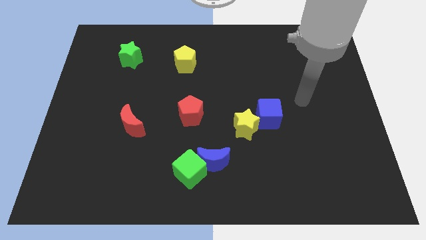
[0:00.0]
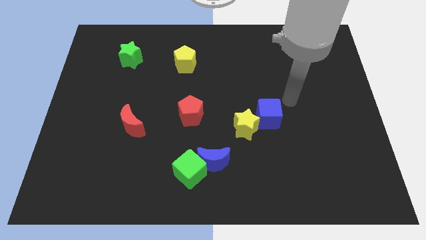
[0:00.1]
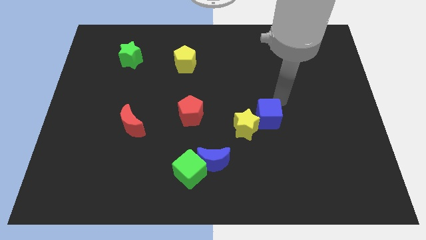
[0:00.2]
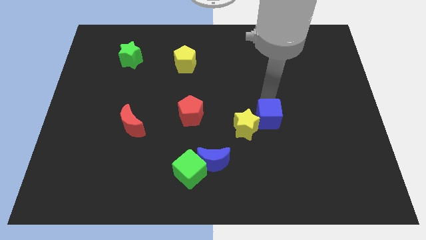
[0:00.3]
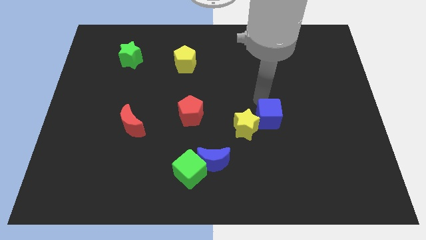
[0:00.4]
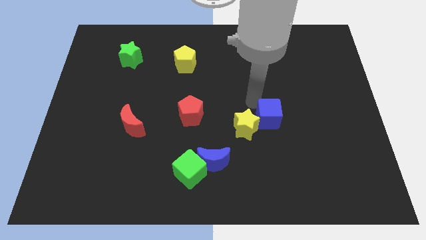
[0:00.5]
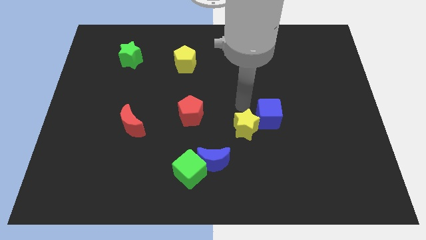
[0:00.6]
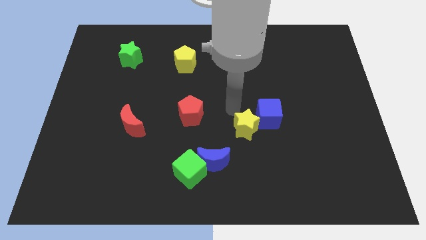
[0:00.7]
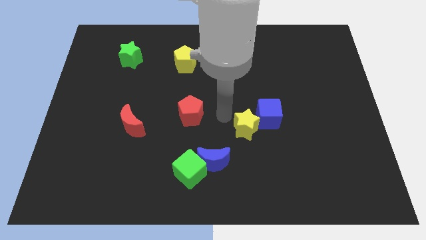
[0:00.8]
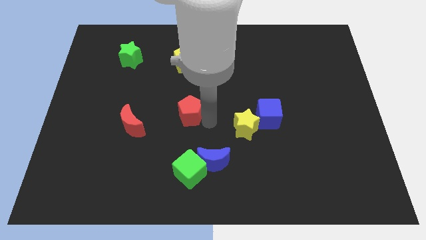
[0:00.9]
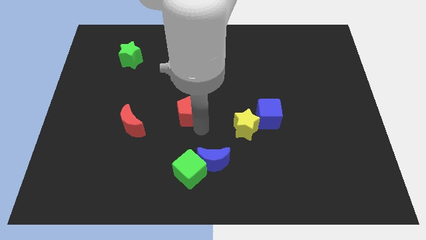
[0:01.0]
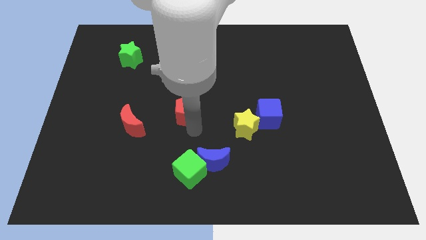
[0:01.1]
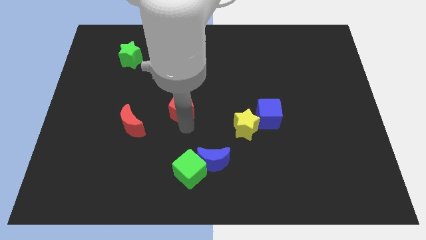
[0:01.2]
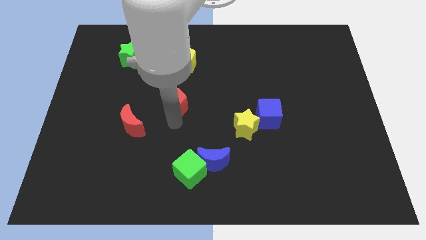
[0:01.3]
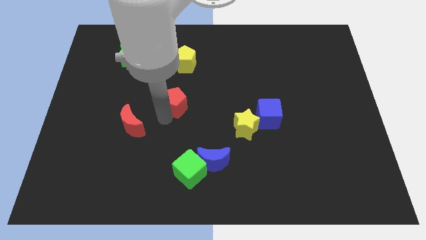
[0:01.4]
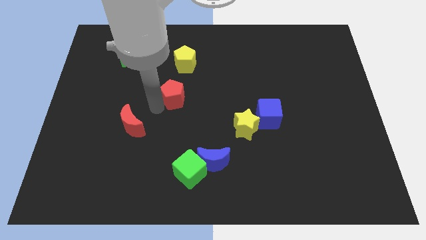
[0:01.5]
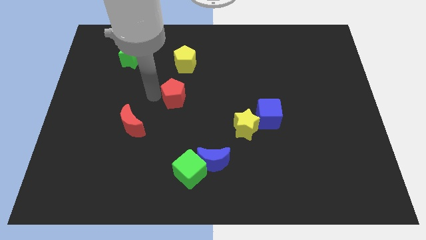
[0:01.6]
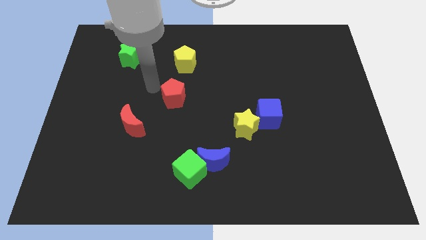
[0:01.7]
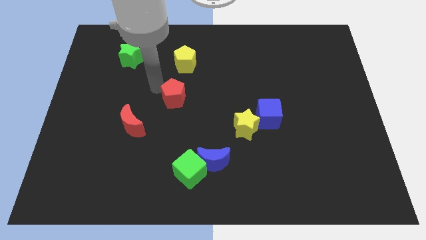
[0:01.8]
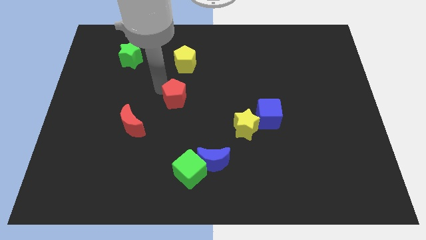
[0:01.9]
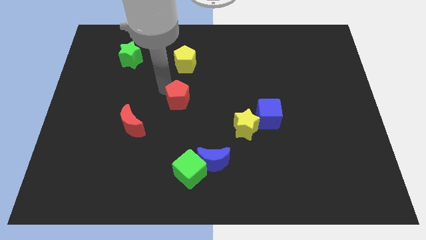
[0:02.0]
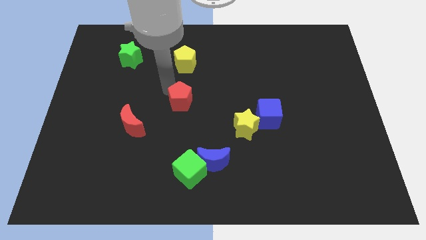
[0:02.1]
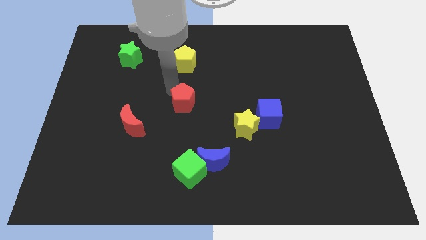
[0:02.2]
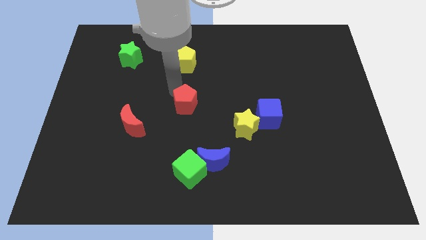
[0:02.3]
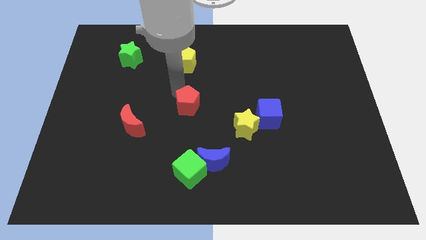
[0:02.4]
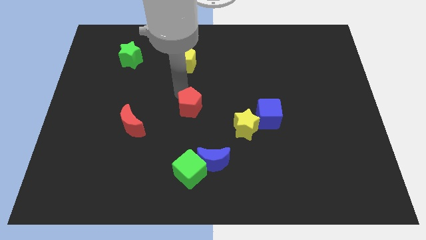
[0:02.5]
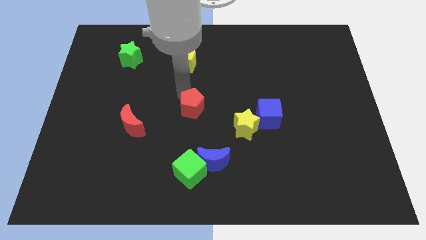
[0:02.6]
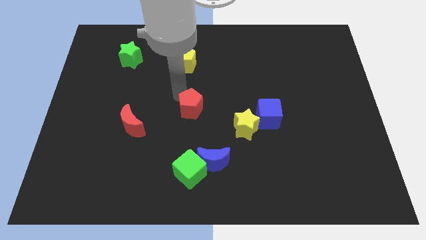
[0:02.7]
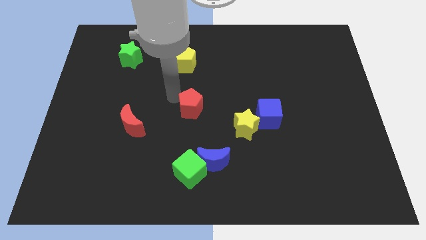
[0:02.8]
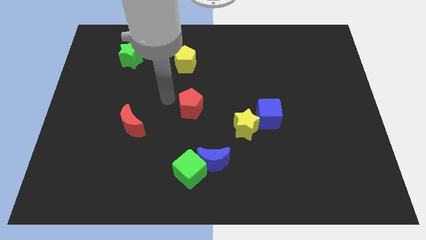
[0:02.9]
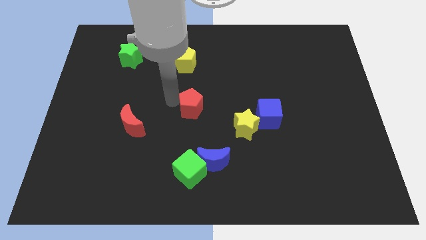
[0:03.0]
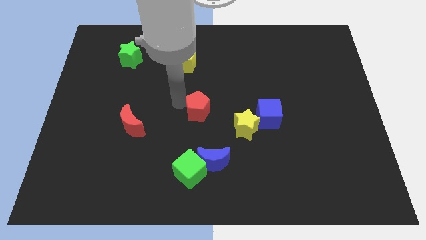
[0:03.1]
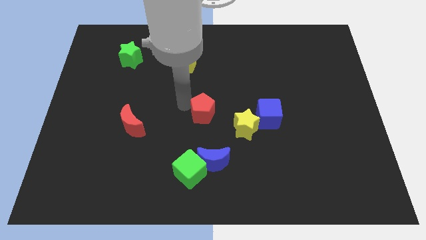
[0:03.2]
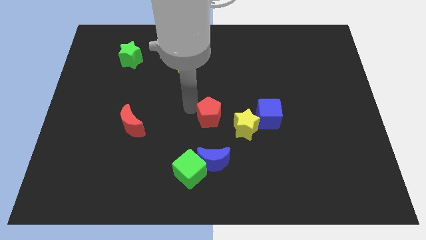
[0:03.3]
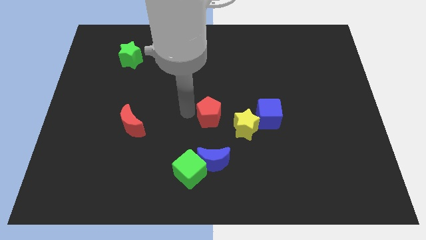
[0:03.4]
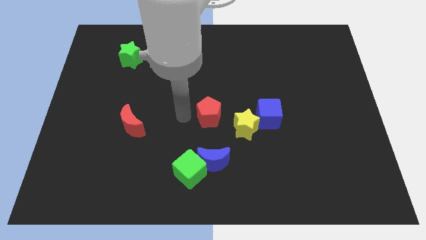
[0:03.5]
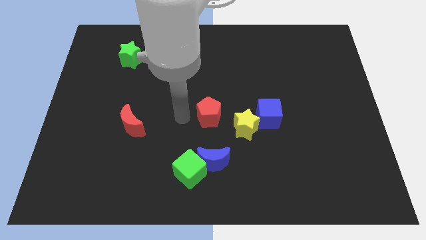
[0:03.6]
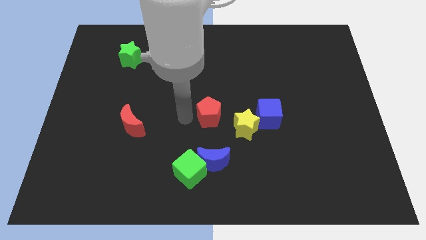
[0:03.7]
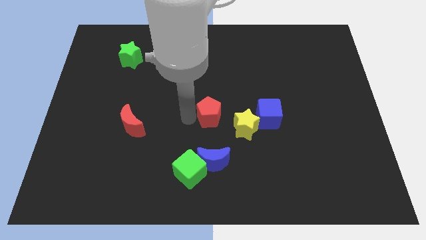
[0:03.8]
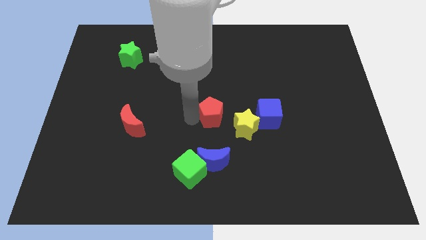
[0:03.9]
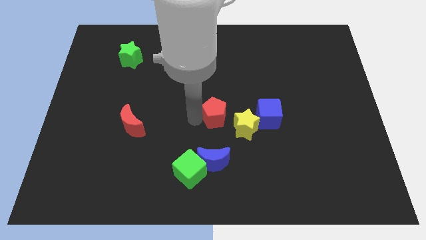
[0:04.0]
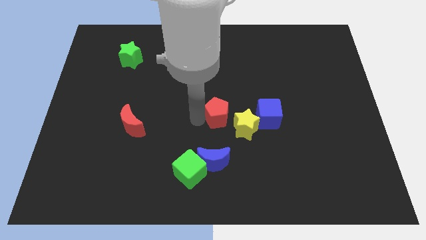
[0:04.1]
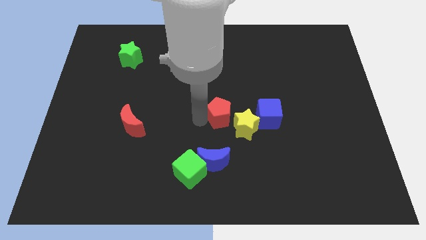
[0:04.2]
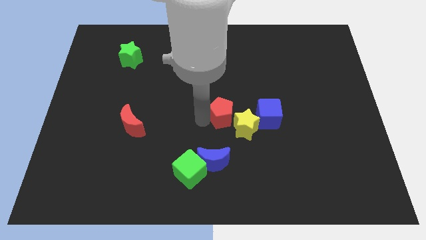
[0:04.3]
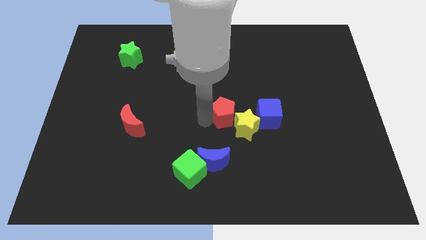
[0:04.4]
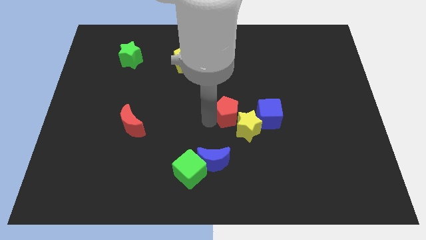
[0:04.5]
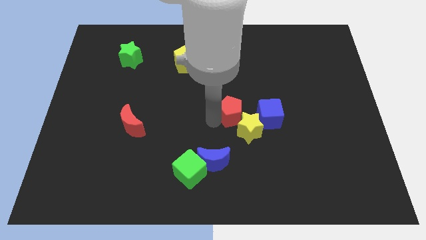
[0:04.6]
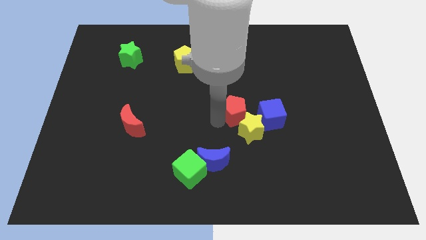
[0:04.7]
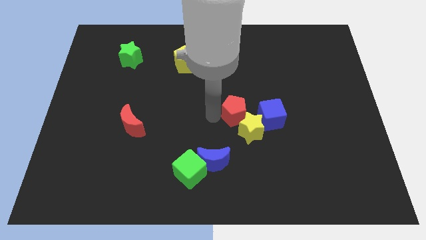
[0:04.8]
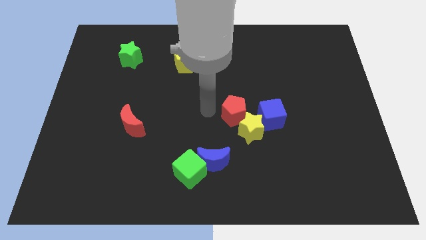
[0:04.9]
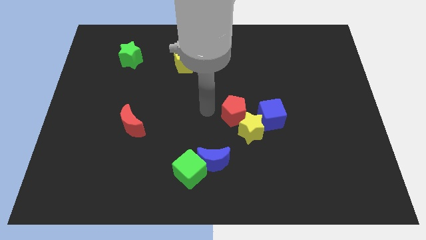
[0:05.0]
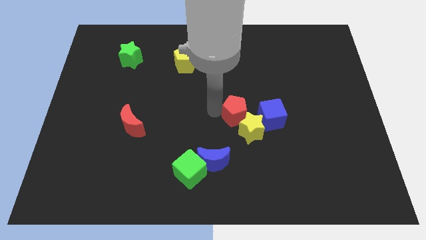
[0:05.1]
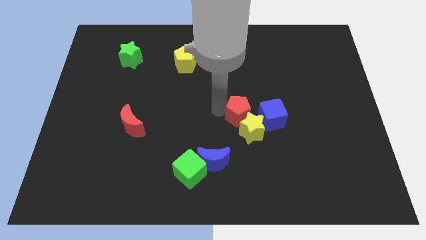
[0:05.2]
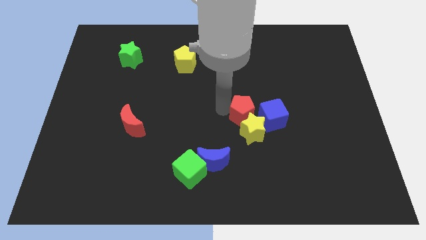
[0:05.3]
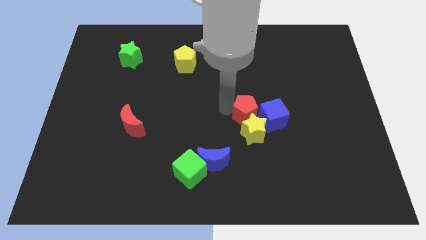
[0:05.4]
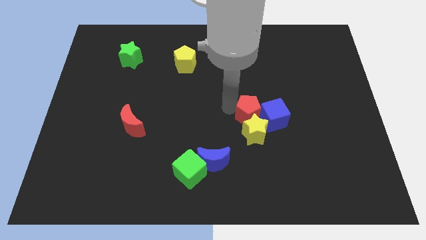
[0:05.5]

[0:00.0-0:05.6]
put the red pentagon next to the blue cube

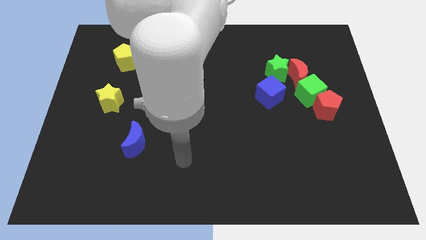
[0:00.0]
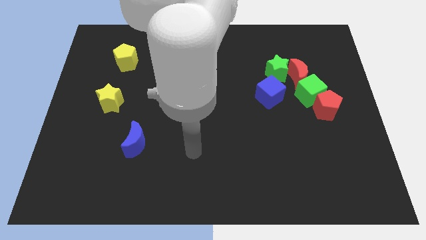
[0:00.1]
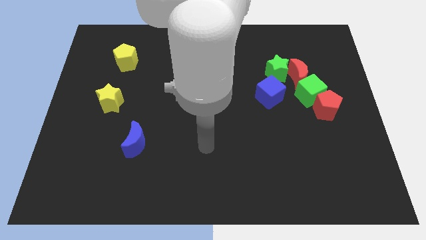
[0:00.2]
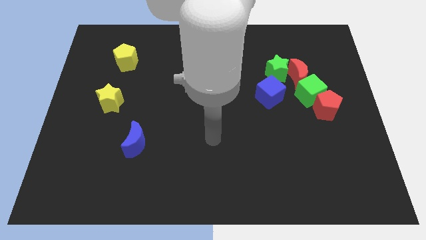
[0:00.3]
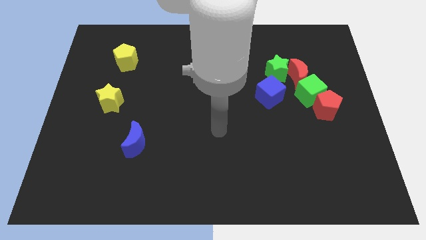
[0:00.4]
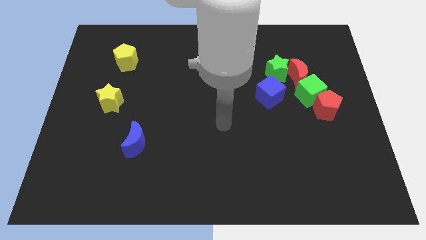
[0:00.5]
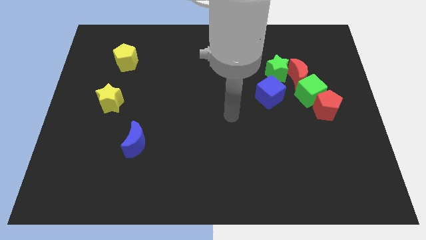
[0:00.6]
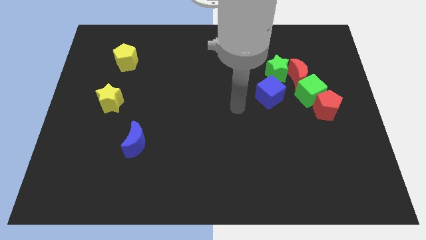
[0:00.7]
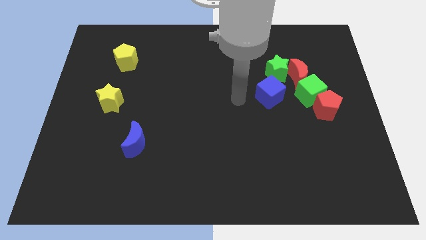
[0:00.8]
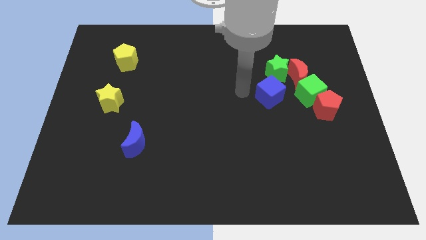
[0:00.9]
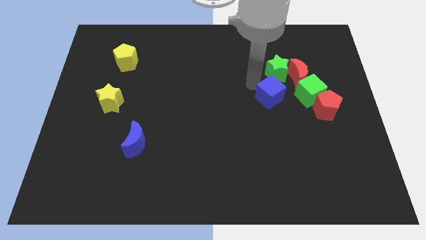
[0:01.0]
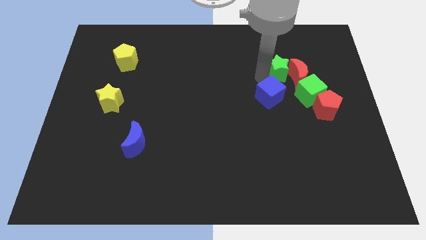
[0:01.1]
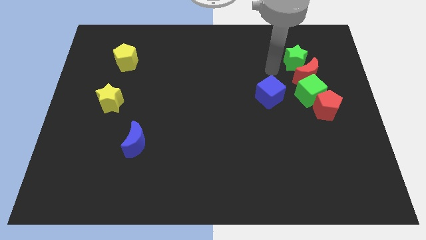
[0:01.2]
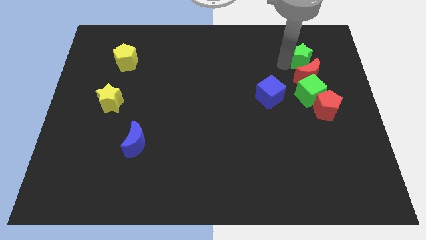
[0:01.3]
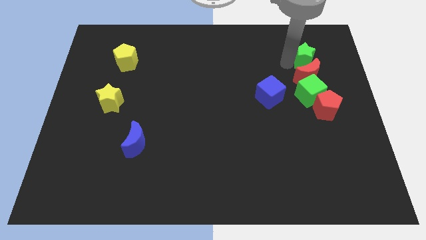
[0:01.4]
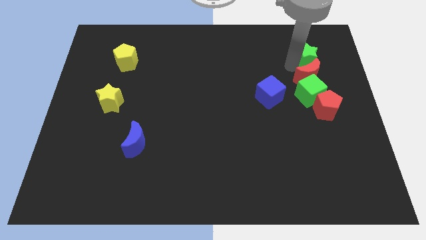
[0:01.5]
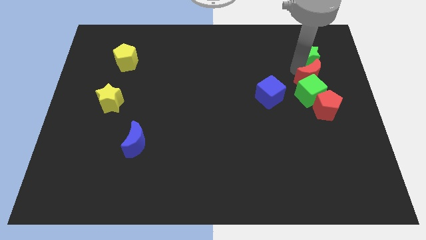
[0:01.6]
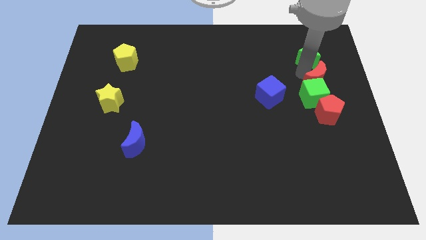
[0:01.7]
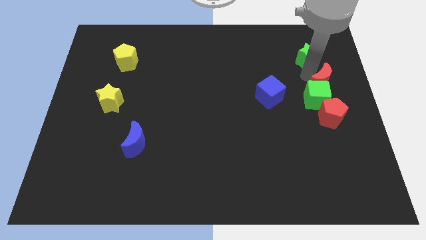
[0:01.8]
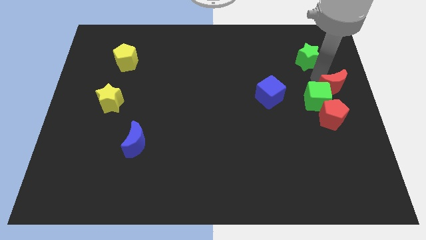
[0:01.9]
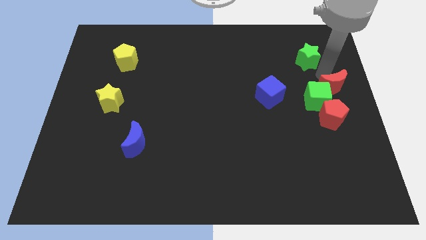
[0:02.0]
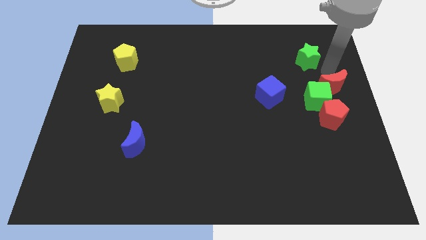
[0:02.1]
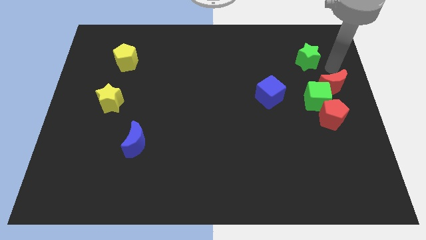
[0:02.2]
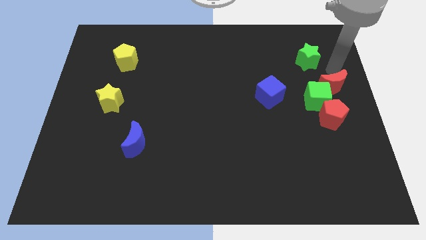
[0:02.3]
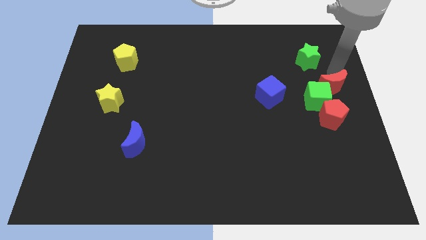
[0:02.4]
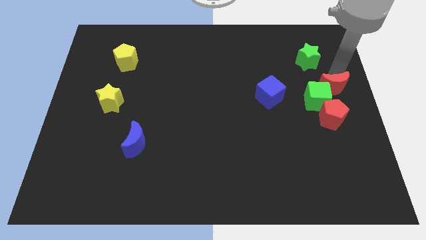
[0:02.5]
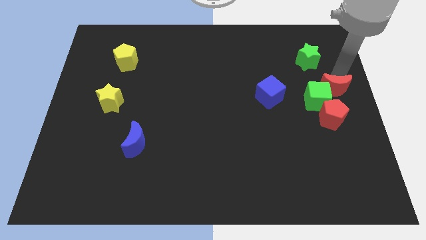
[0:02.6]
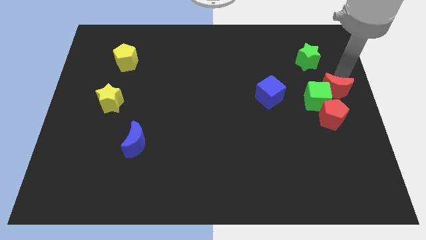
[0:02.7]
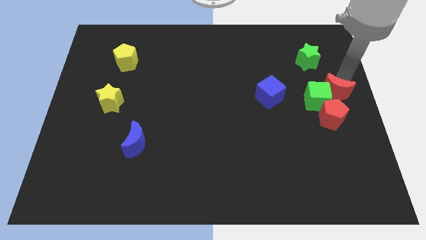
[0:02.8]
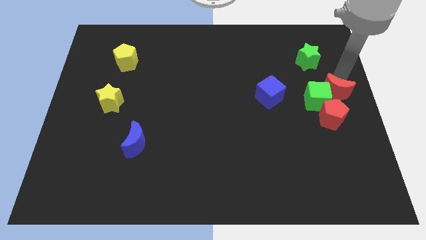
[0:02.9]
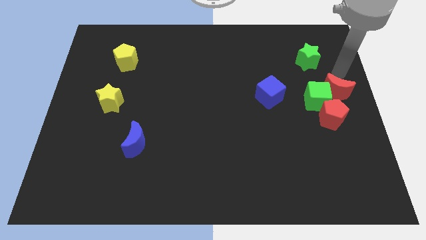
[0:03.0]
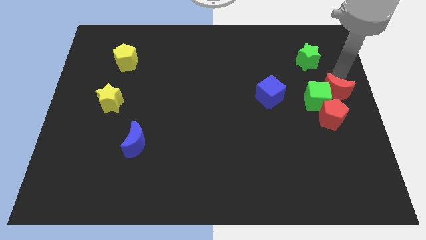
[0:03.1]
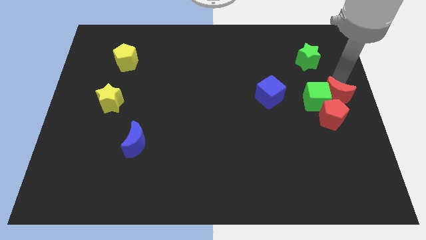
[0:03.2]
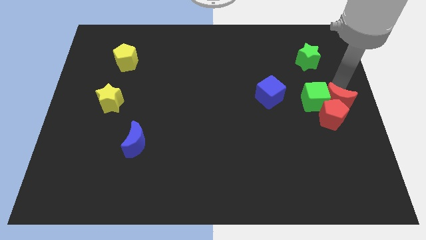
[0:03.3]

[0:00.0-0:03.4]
push the red moon to the red pentagon
